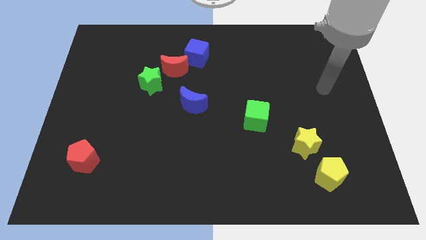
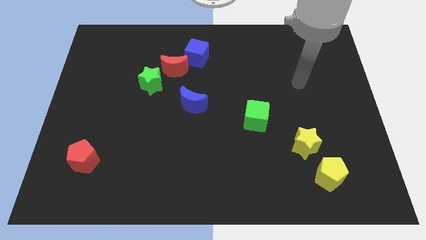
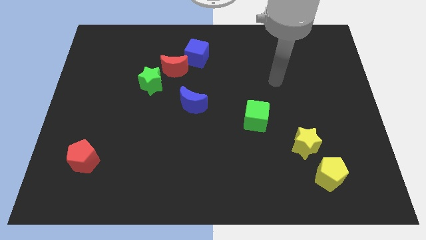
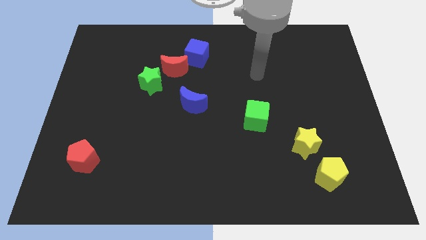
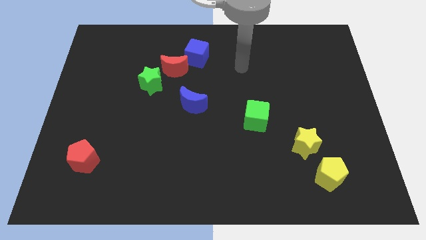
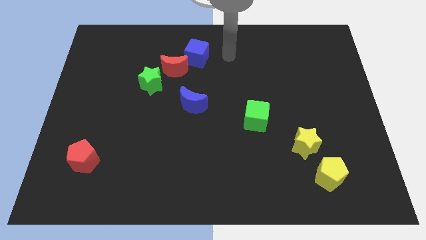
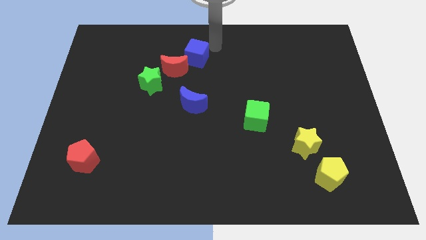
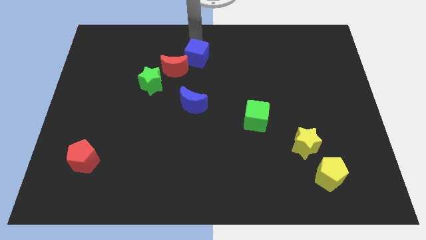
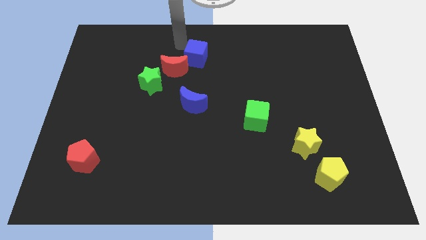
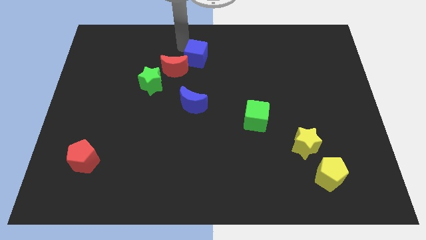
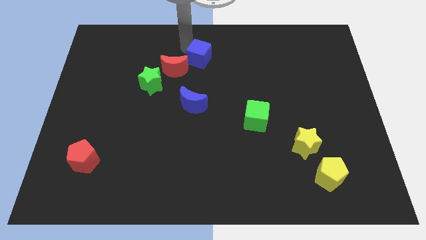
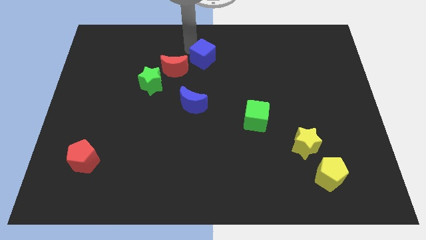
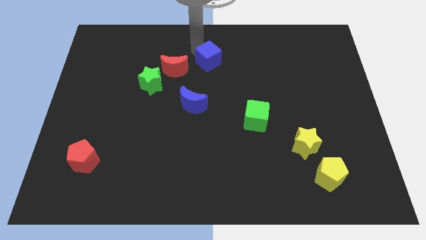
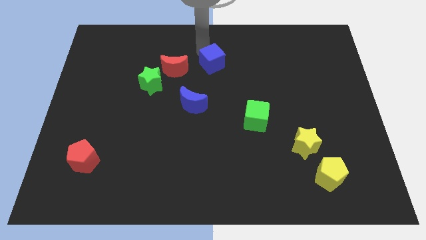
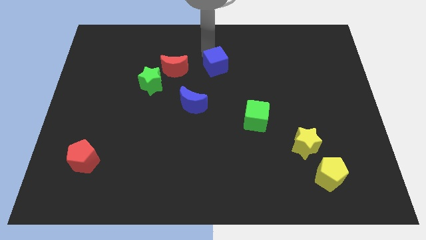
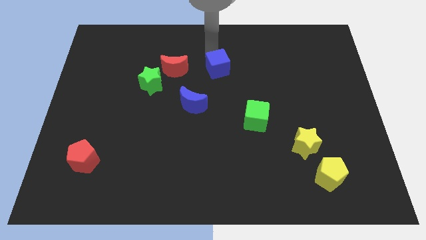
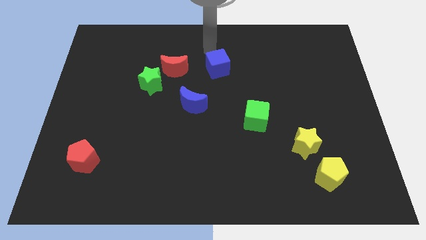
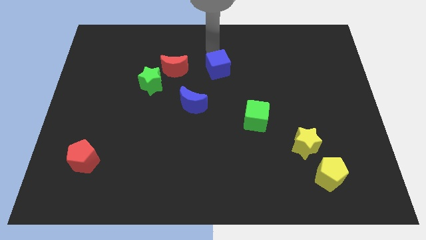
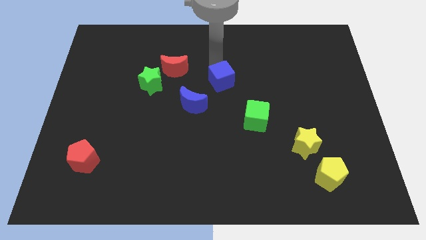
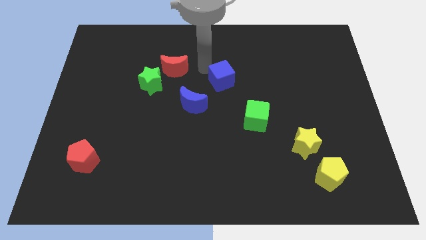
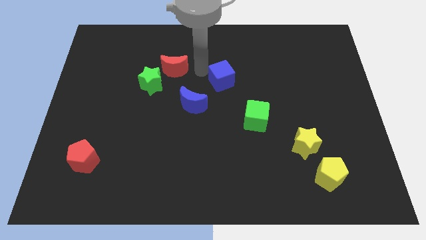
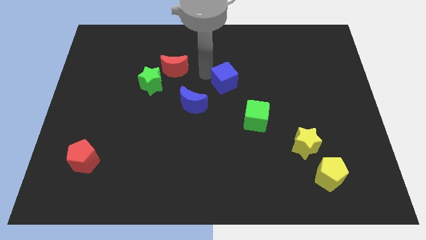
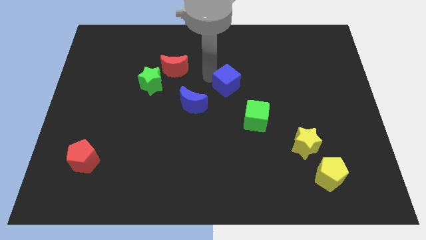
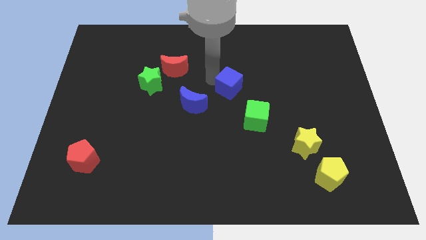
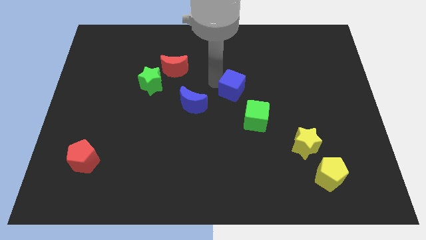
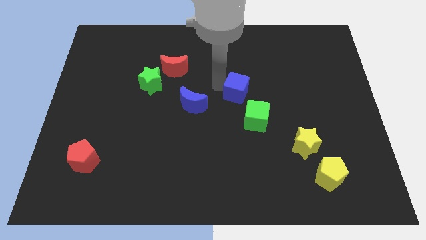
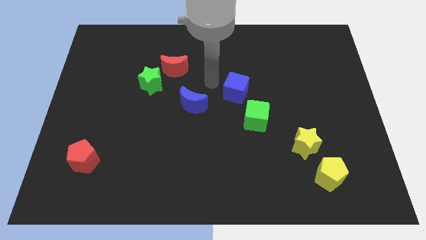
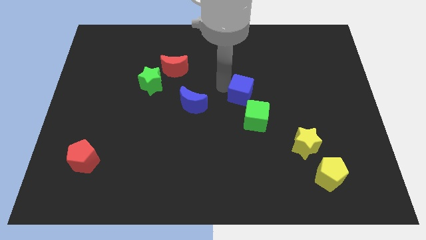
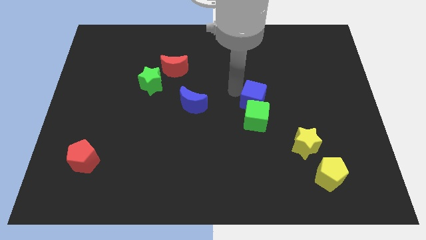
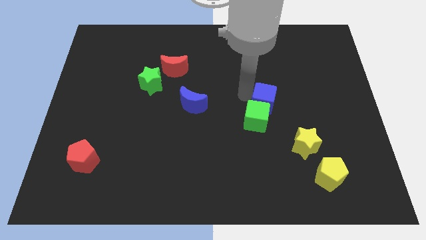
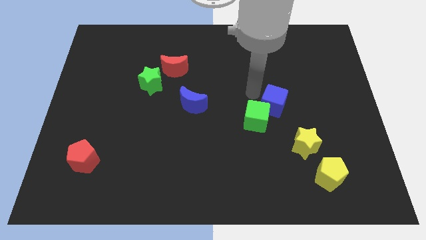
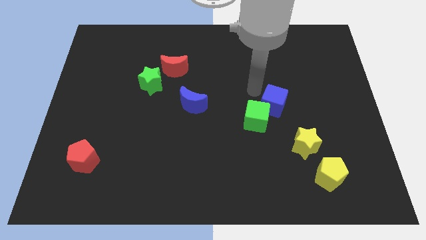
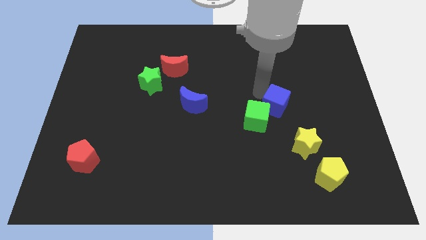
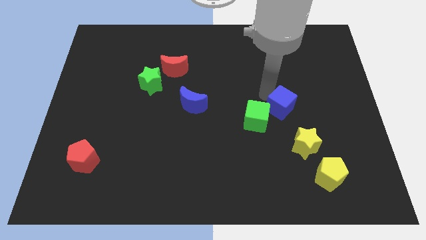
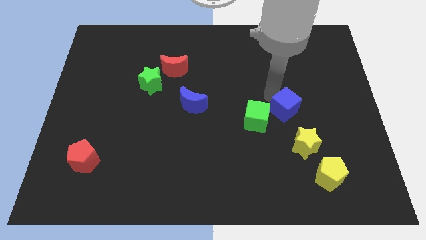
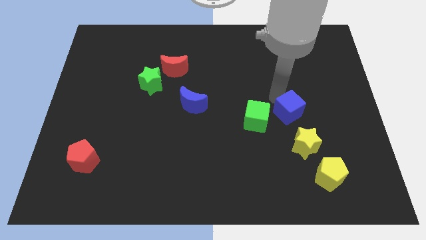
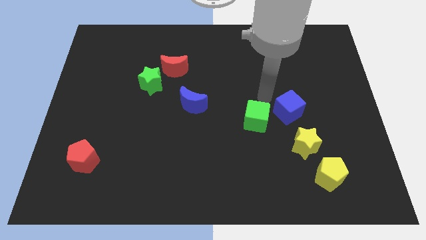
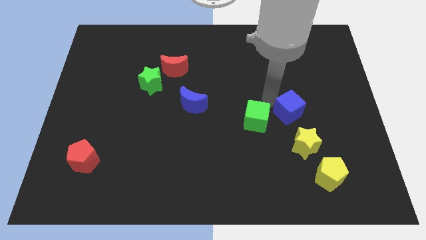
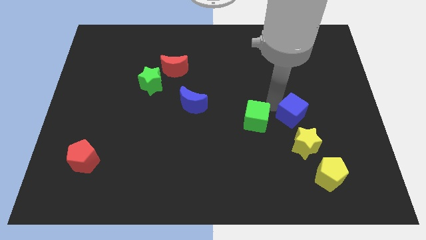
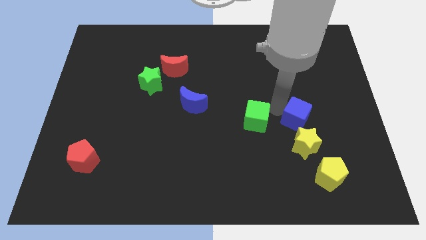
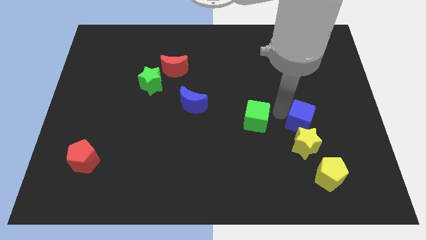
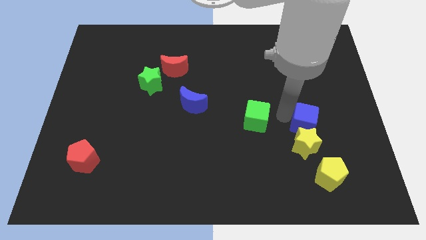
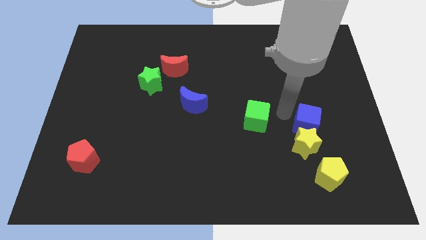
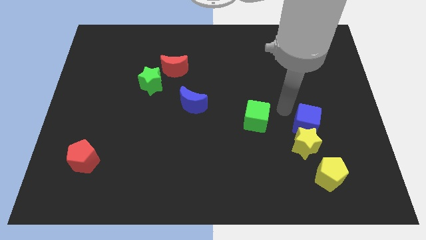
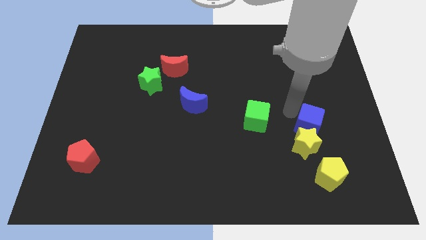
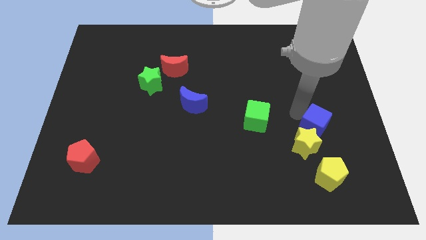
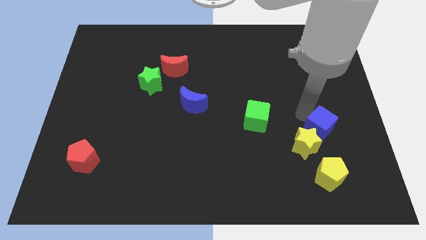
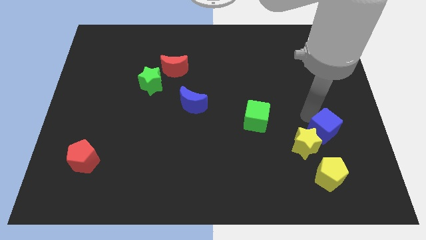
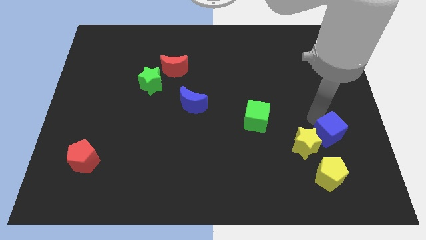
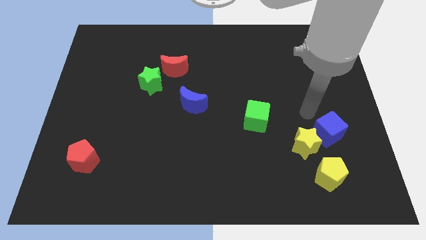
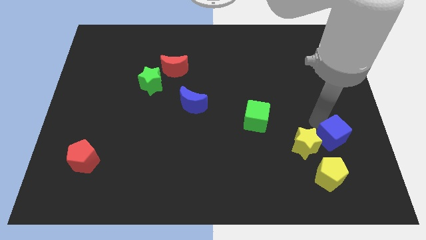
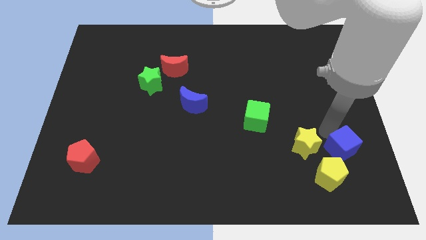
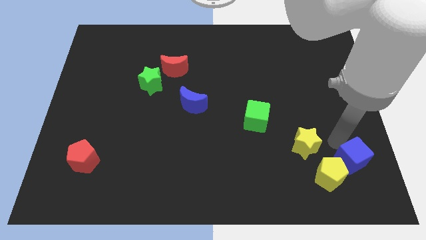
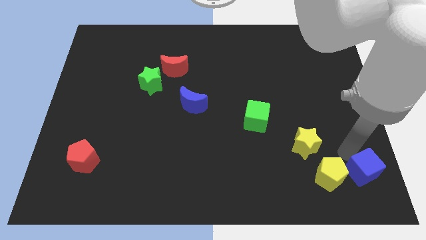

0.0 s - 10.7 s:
put the blue cube to the bottom right corner

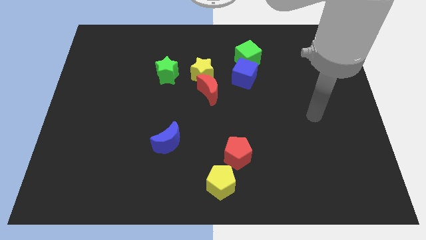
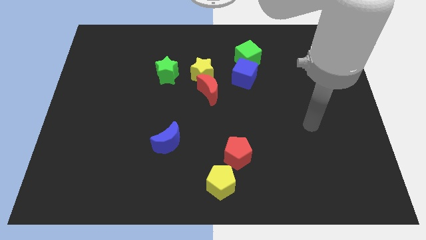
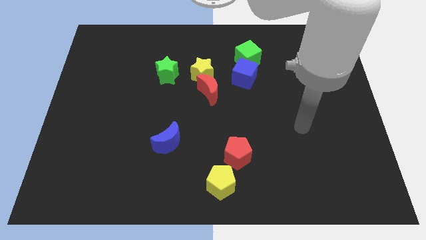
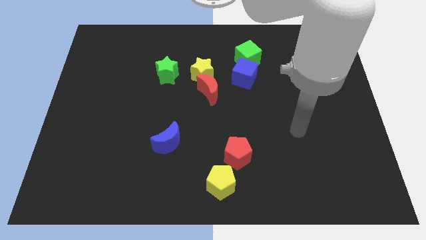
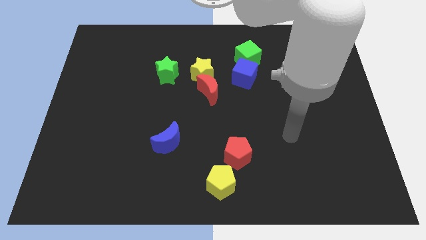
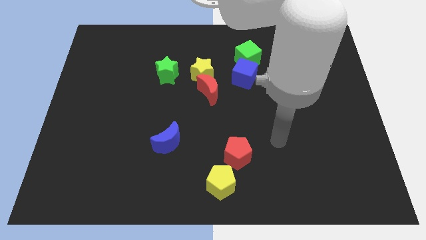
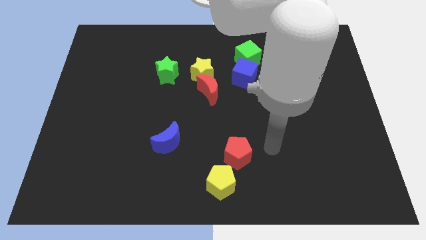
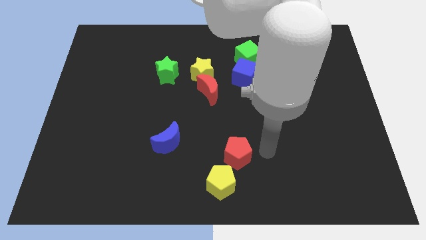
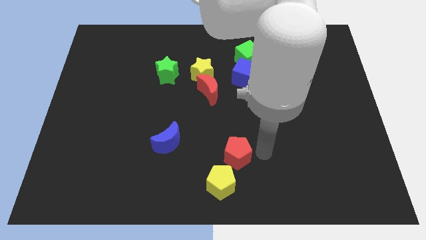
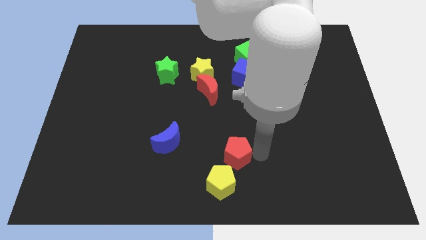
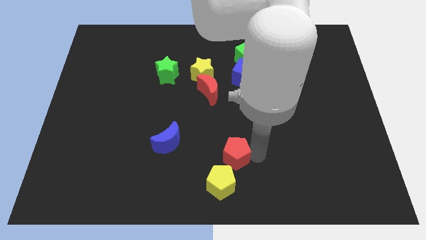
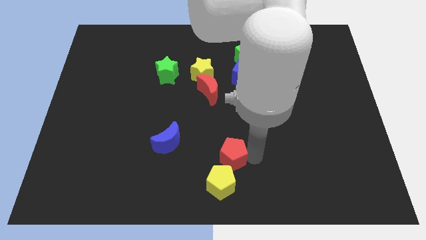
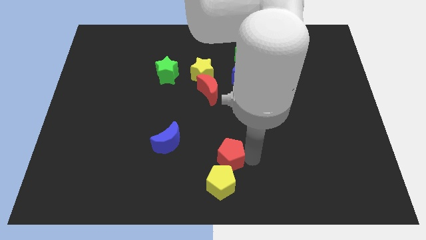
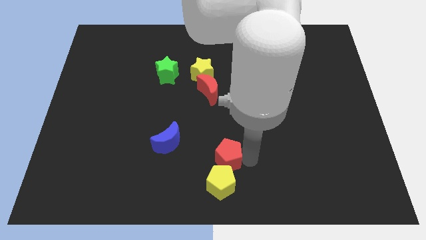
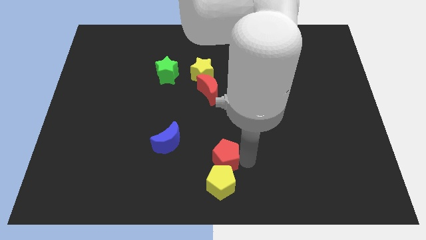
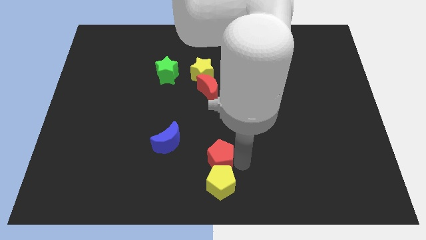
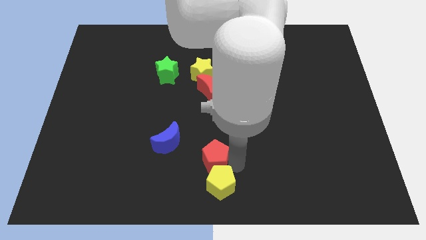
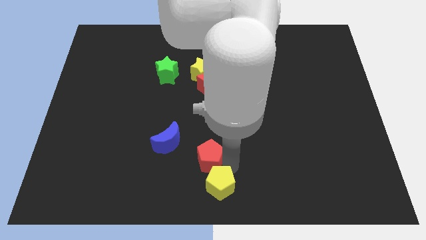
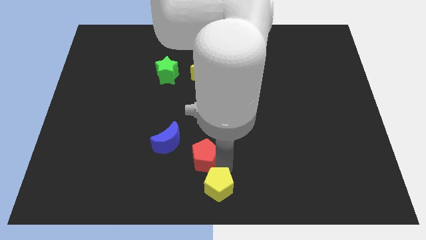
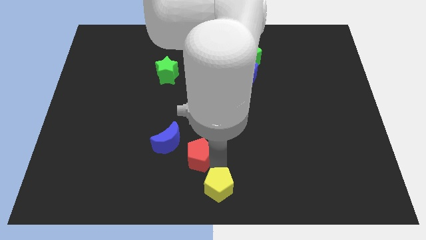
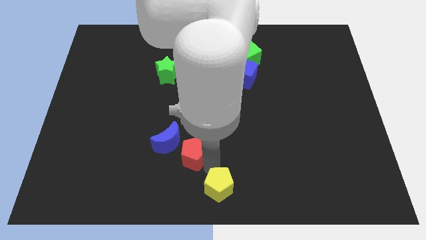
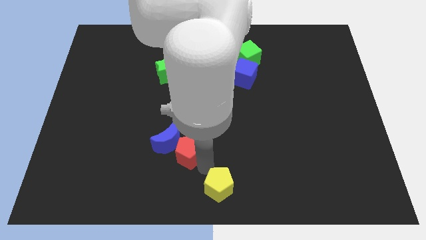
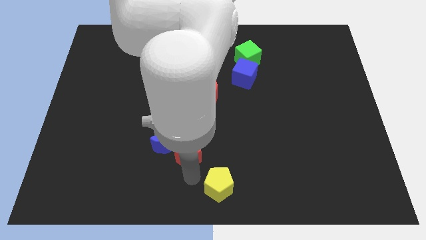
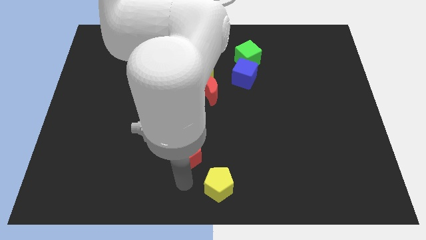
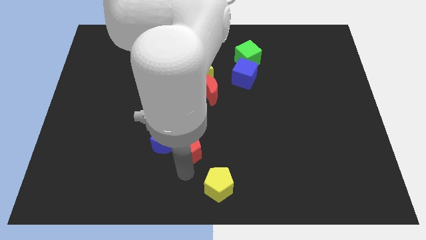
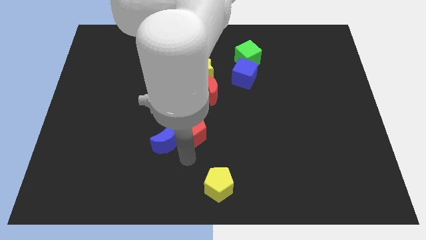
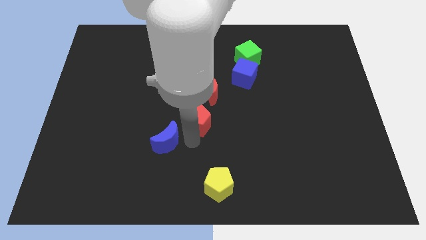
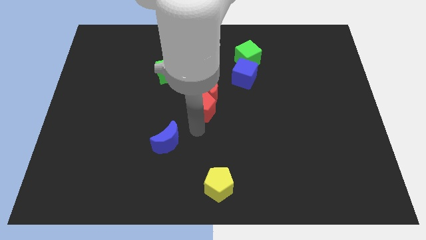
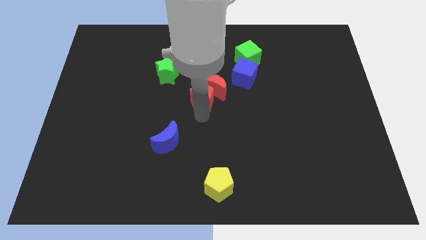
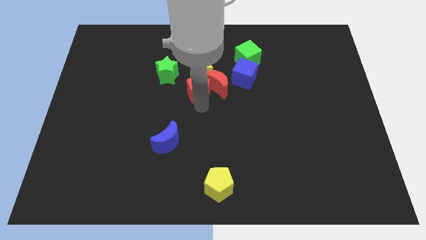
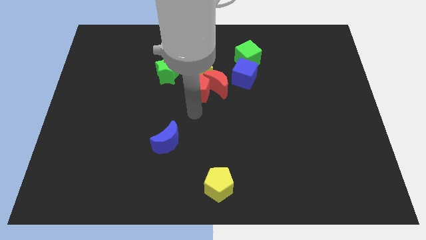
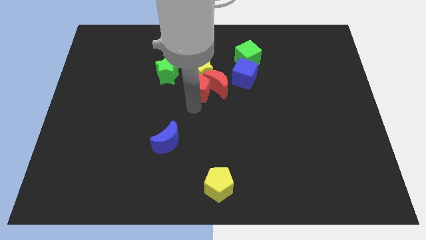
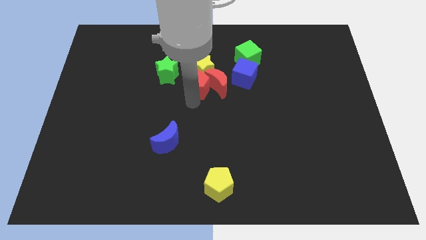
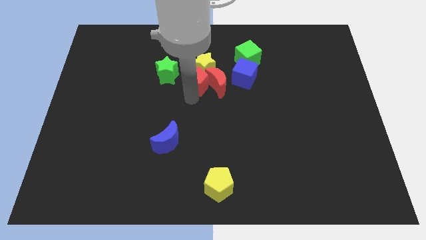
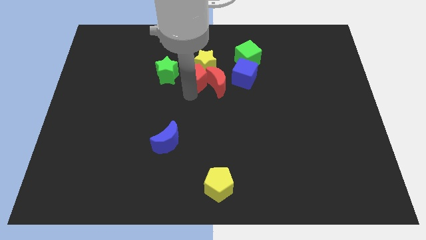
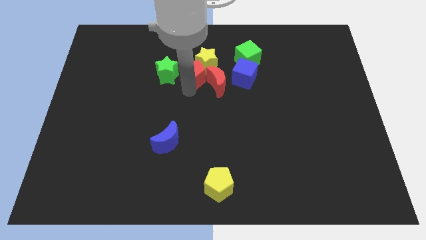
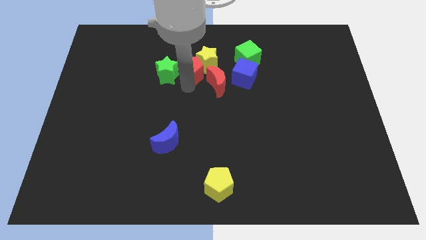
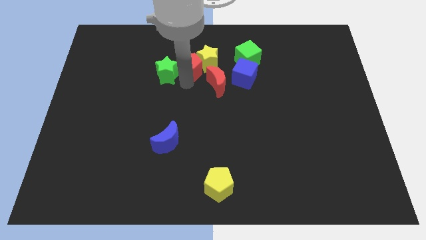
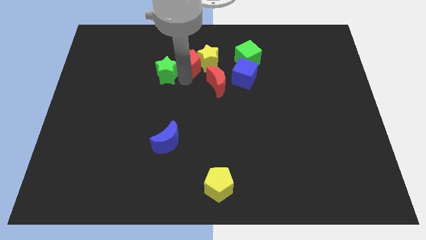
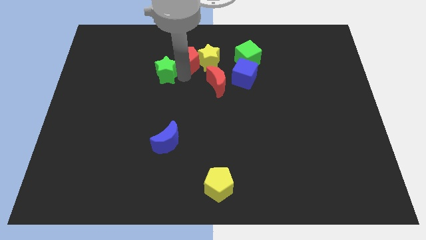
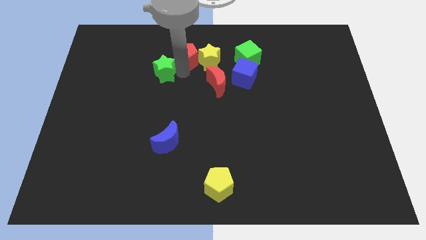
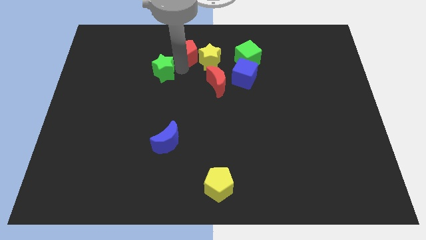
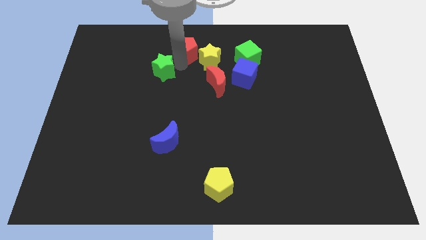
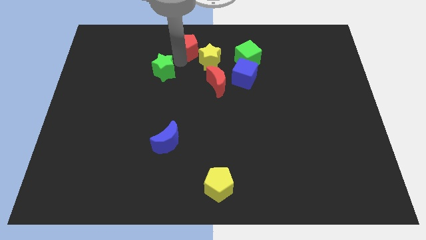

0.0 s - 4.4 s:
move the red pentagon to the top side
